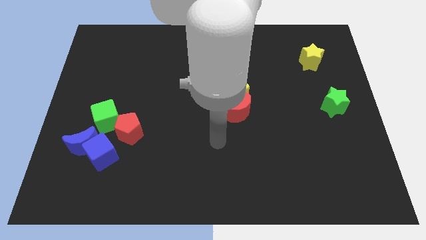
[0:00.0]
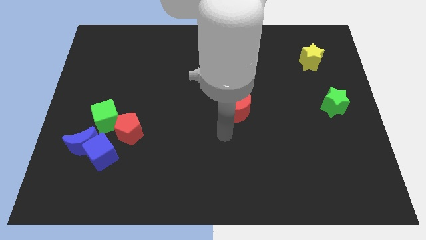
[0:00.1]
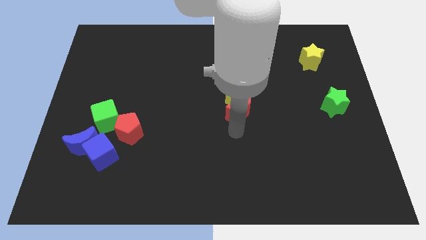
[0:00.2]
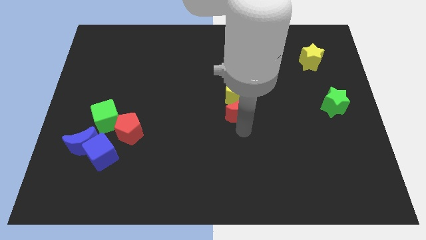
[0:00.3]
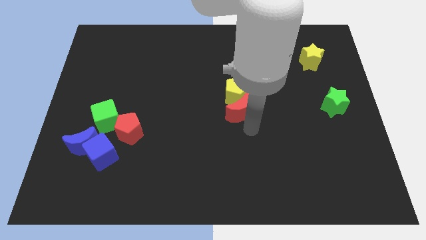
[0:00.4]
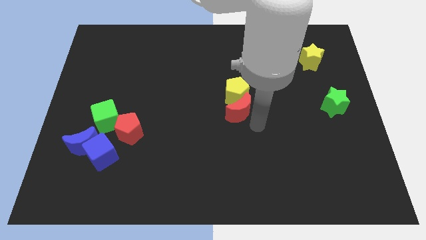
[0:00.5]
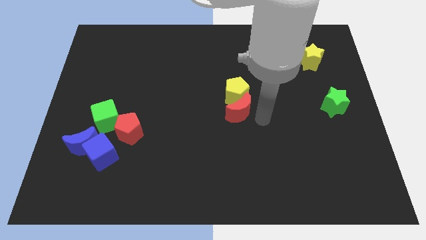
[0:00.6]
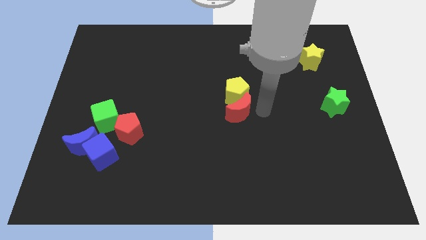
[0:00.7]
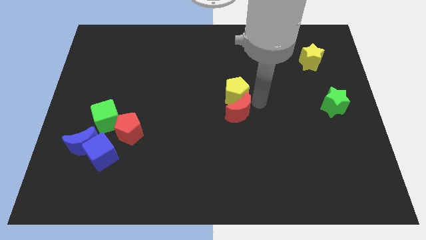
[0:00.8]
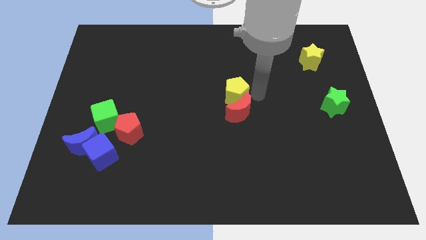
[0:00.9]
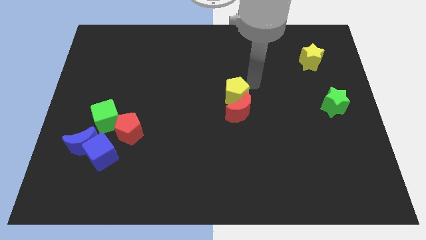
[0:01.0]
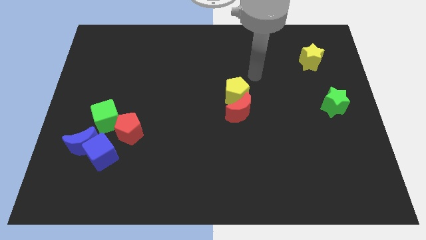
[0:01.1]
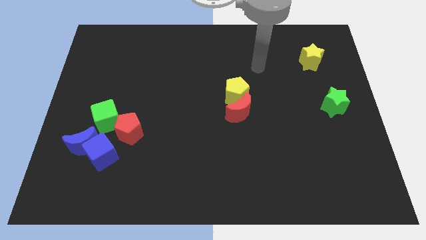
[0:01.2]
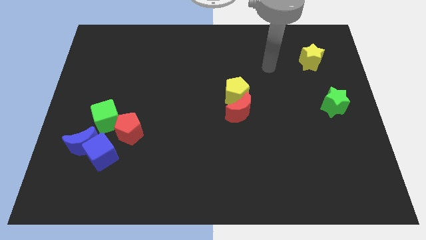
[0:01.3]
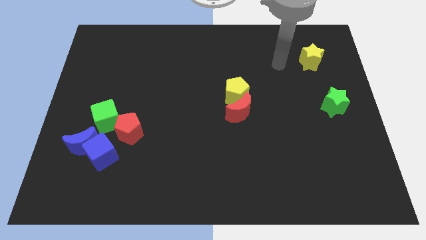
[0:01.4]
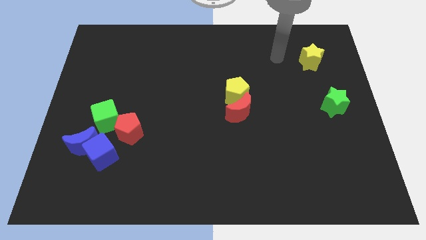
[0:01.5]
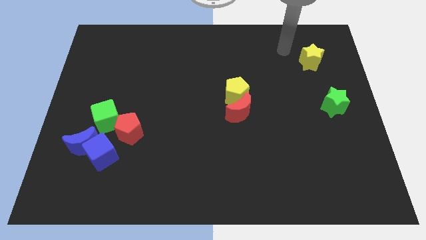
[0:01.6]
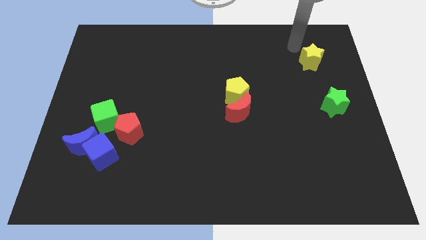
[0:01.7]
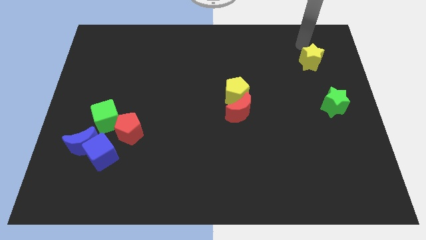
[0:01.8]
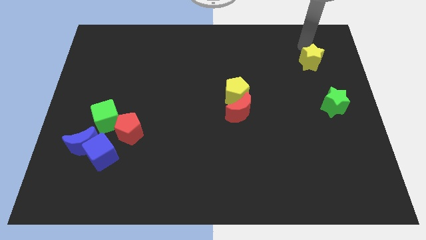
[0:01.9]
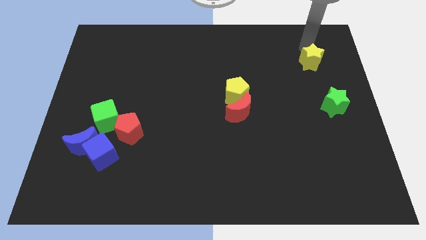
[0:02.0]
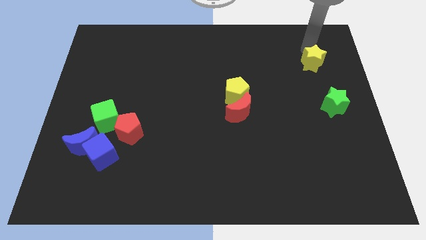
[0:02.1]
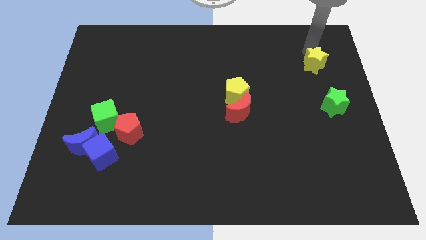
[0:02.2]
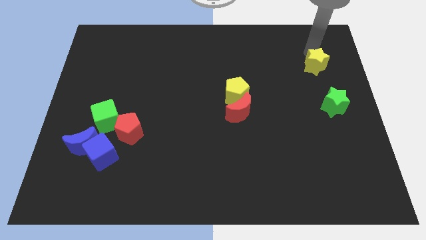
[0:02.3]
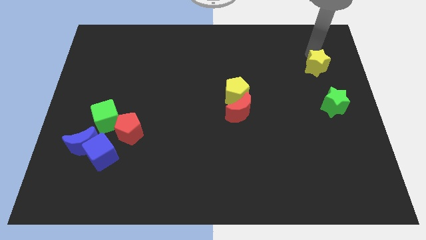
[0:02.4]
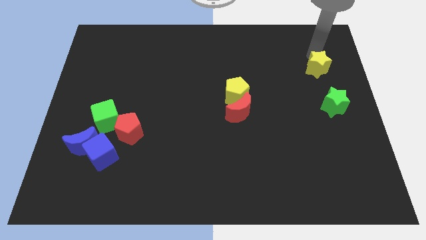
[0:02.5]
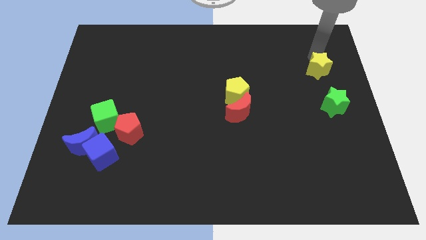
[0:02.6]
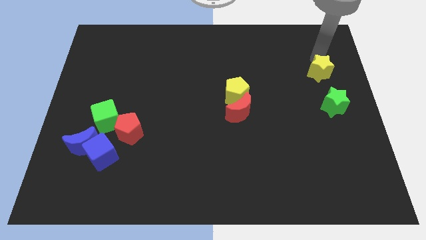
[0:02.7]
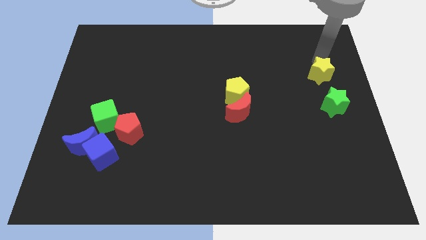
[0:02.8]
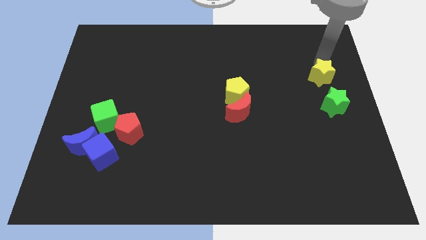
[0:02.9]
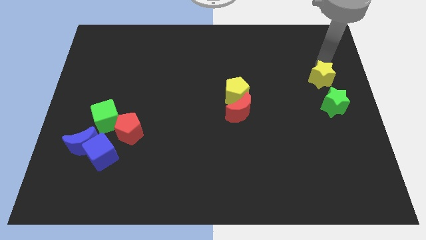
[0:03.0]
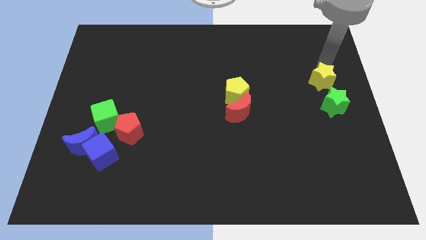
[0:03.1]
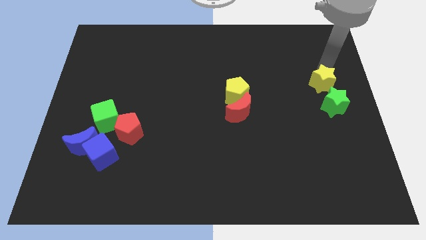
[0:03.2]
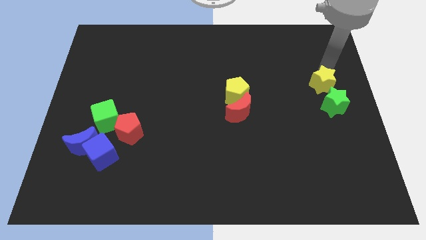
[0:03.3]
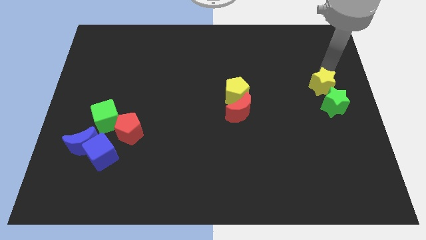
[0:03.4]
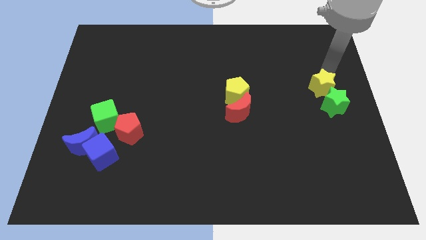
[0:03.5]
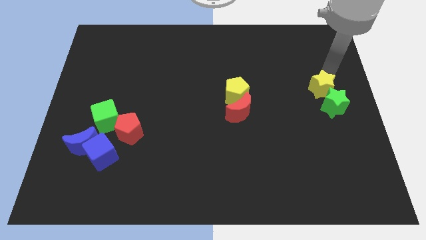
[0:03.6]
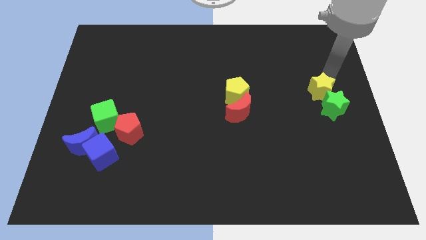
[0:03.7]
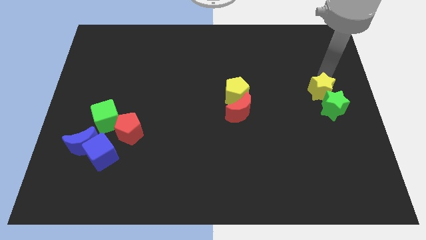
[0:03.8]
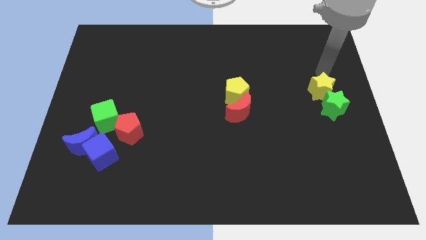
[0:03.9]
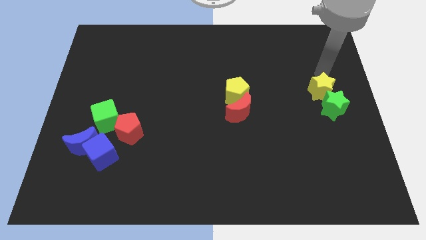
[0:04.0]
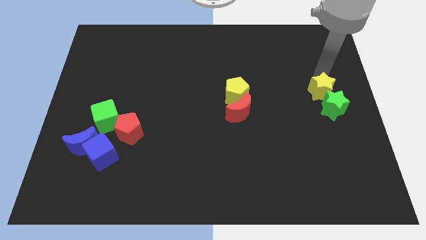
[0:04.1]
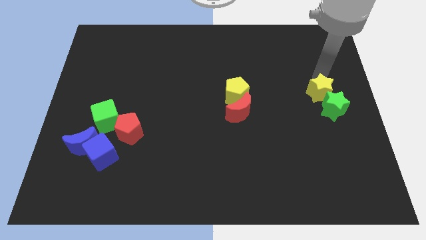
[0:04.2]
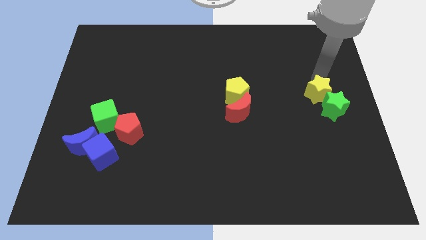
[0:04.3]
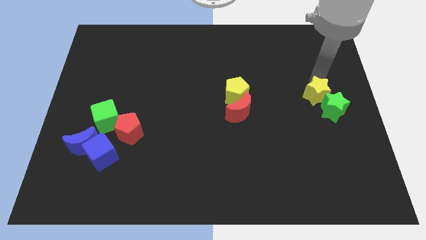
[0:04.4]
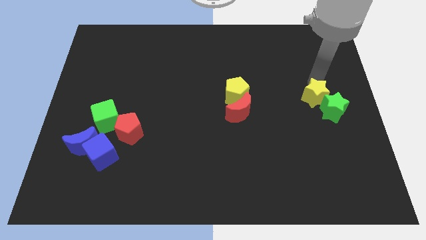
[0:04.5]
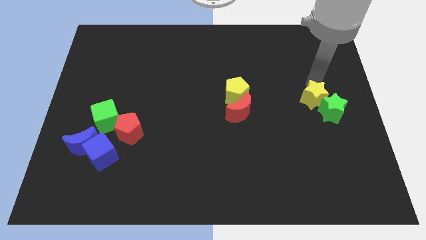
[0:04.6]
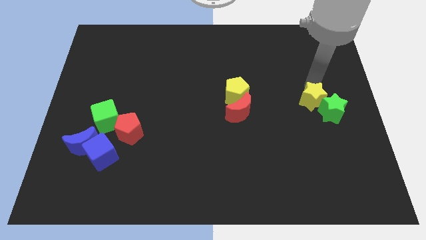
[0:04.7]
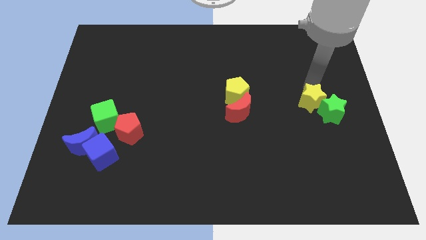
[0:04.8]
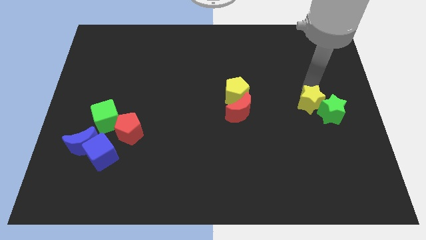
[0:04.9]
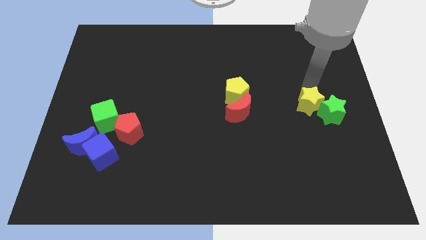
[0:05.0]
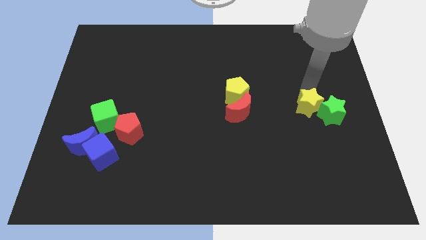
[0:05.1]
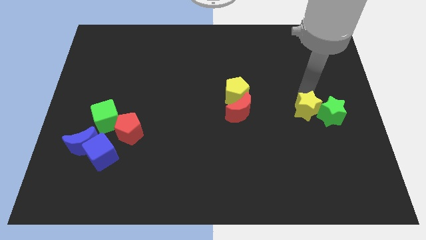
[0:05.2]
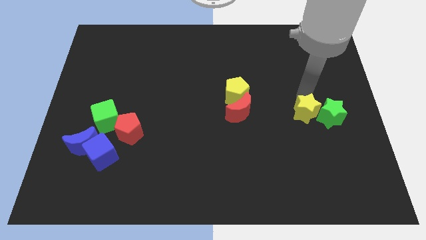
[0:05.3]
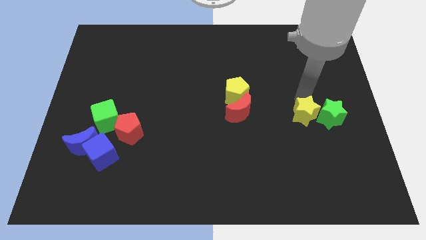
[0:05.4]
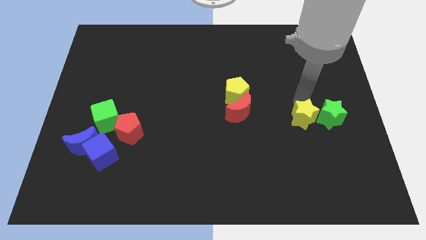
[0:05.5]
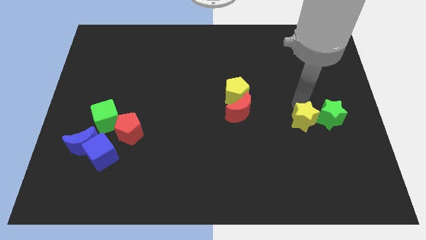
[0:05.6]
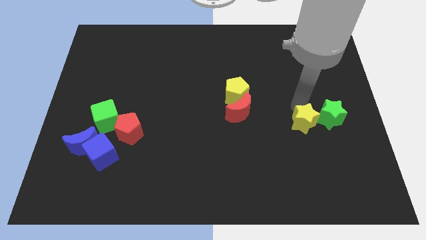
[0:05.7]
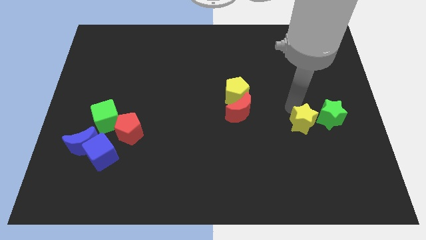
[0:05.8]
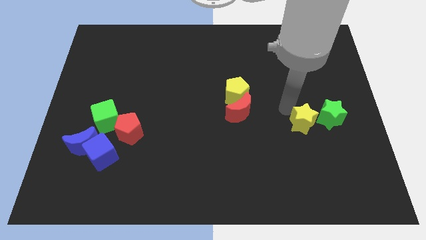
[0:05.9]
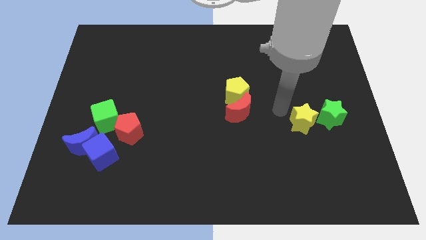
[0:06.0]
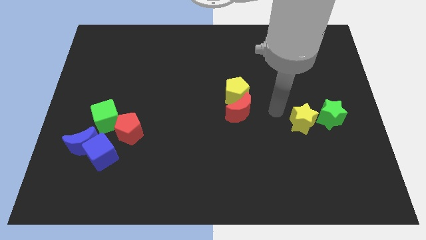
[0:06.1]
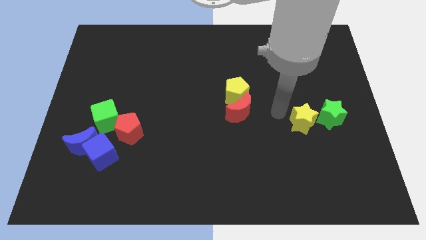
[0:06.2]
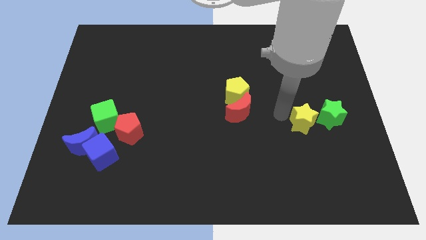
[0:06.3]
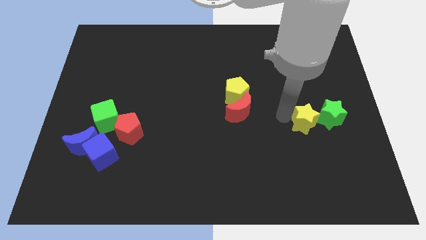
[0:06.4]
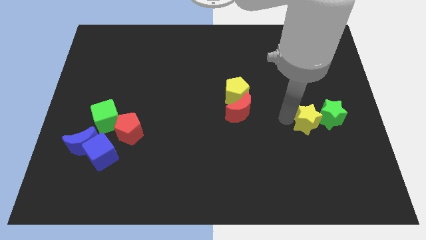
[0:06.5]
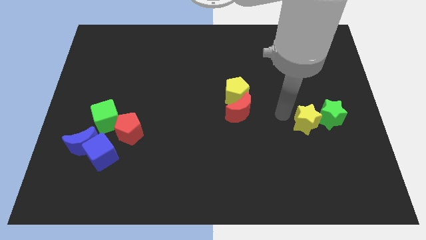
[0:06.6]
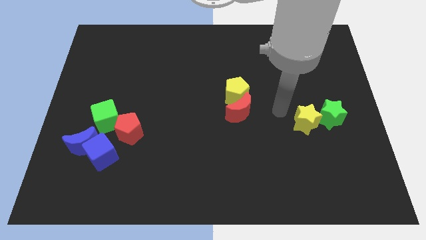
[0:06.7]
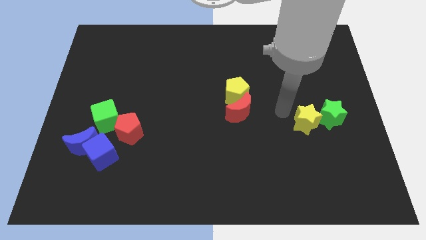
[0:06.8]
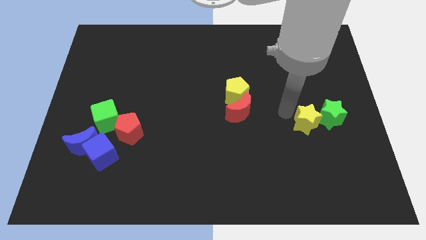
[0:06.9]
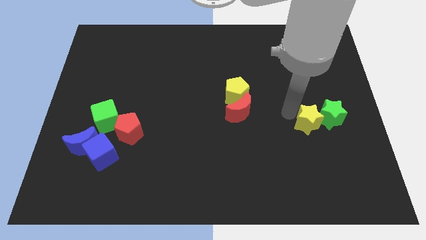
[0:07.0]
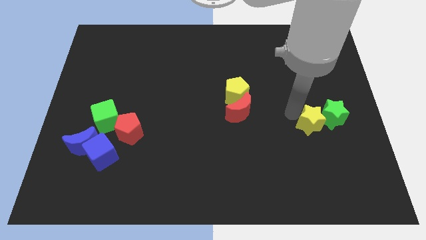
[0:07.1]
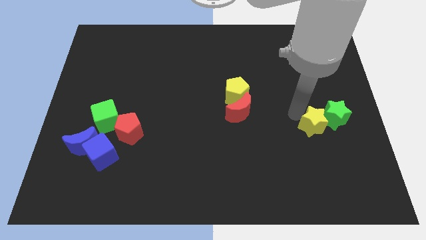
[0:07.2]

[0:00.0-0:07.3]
push the yellow star down

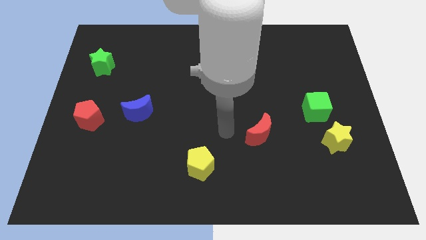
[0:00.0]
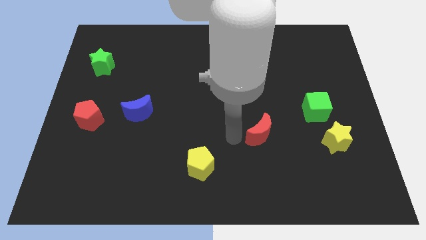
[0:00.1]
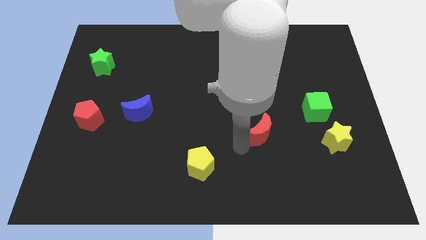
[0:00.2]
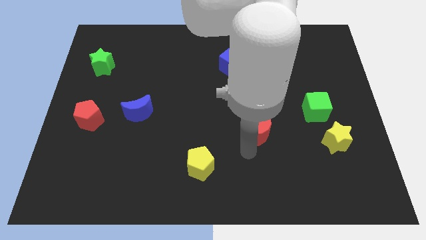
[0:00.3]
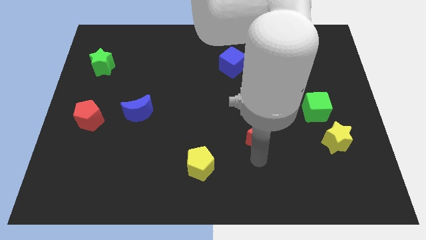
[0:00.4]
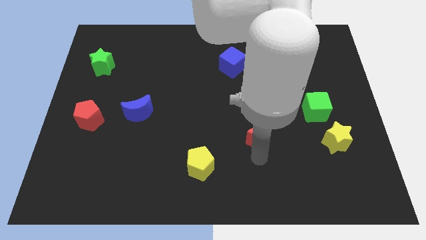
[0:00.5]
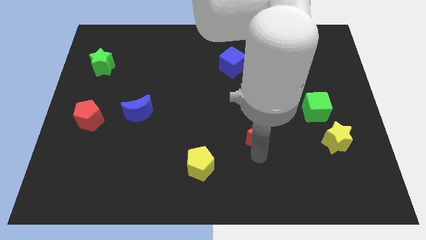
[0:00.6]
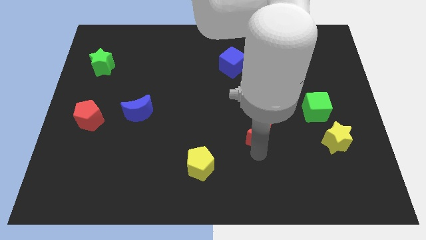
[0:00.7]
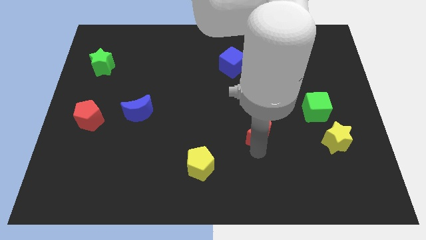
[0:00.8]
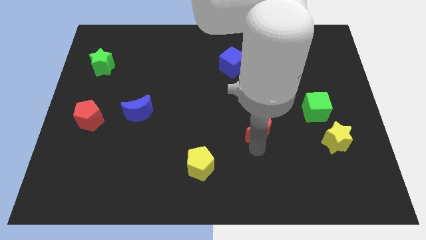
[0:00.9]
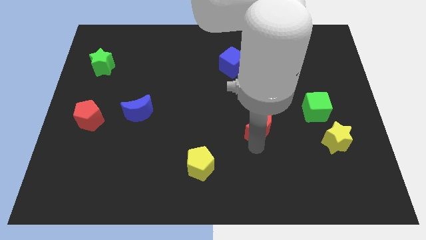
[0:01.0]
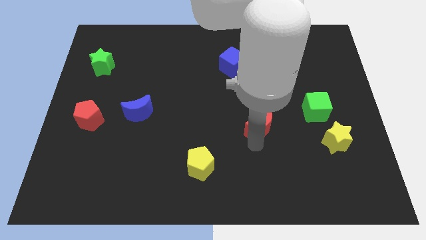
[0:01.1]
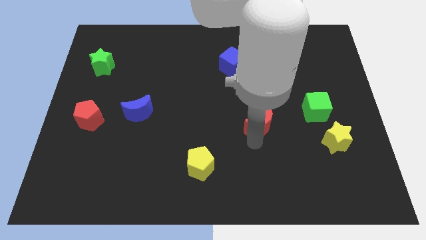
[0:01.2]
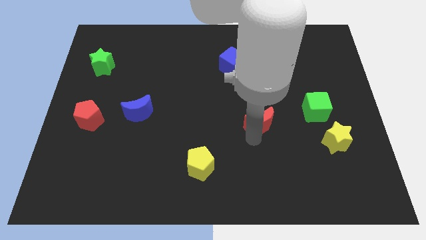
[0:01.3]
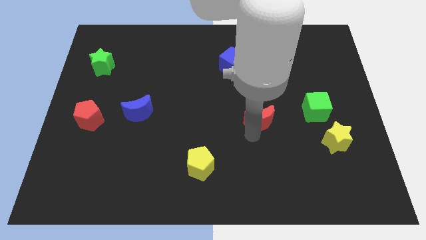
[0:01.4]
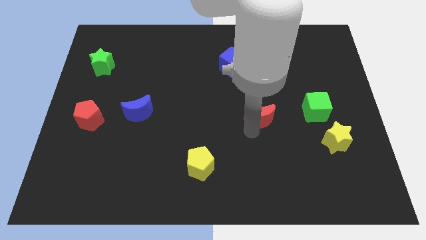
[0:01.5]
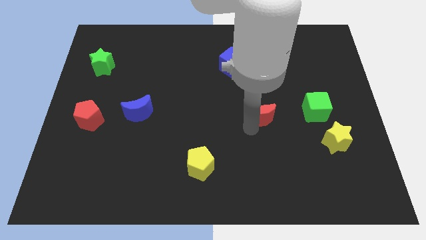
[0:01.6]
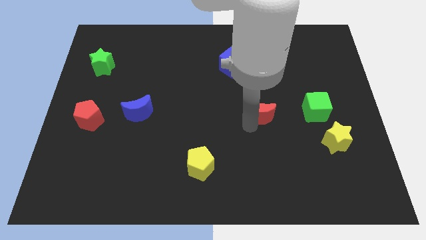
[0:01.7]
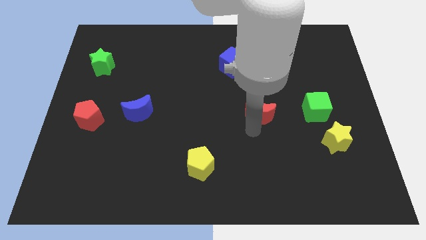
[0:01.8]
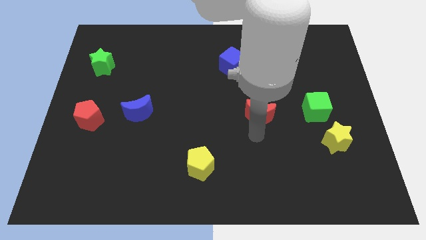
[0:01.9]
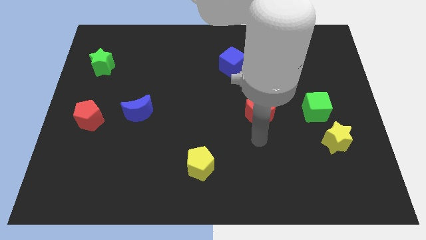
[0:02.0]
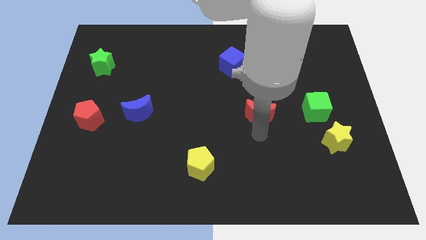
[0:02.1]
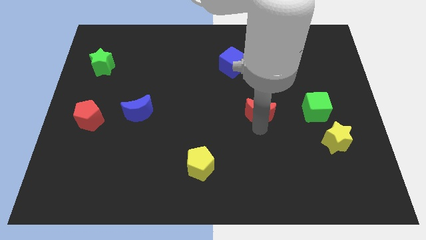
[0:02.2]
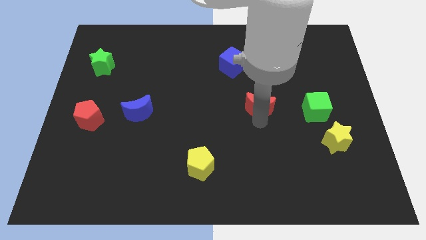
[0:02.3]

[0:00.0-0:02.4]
move the red moon upwards a little
